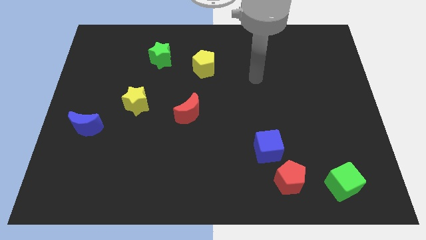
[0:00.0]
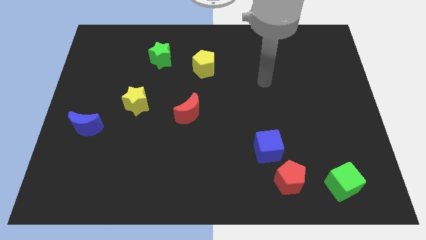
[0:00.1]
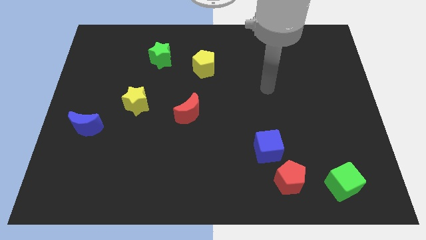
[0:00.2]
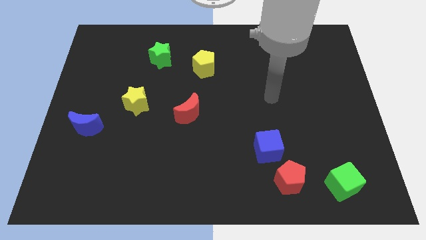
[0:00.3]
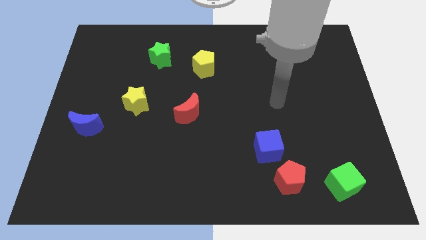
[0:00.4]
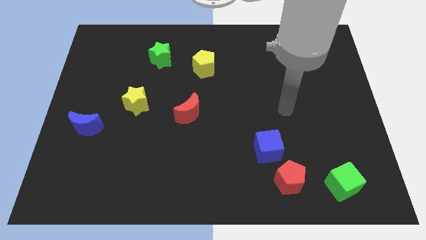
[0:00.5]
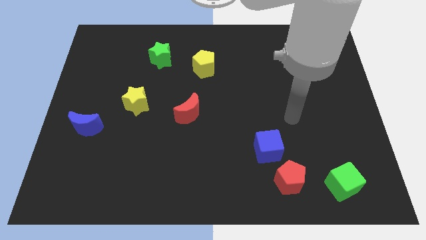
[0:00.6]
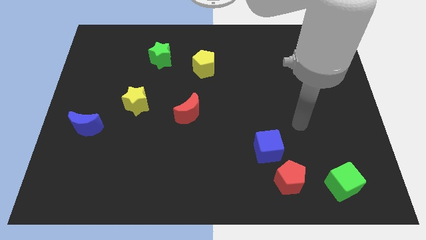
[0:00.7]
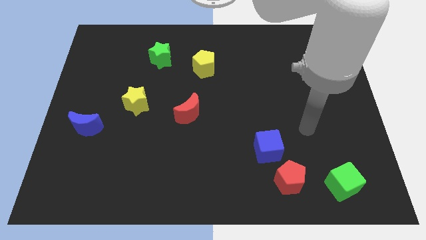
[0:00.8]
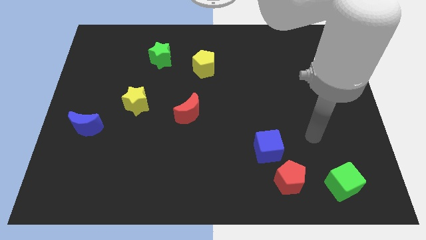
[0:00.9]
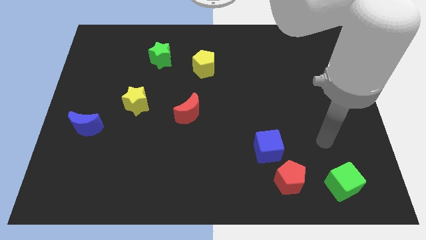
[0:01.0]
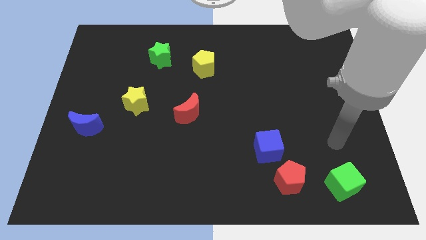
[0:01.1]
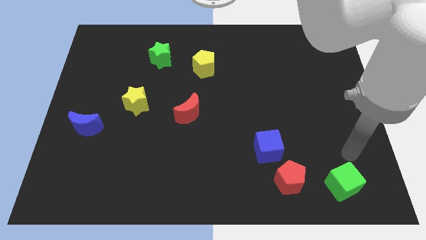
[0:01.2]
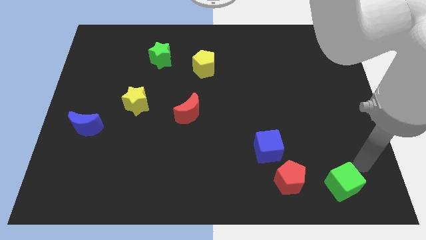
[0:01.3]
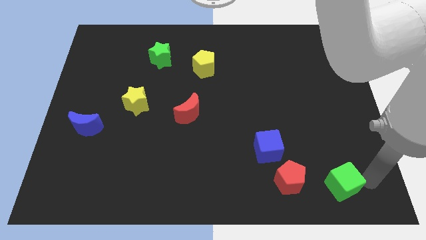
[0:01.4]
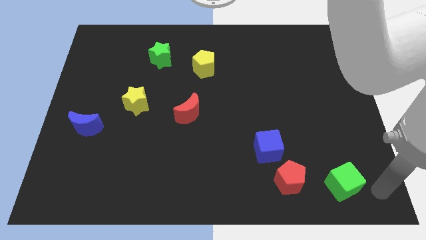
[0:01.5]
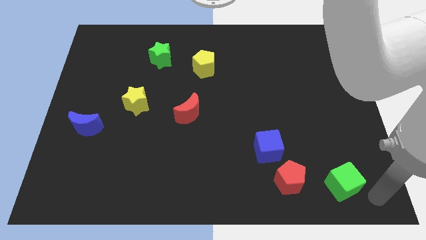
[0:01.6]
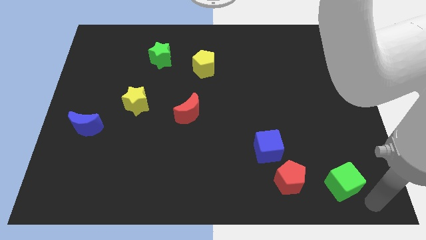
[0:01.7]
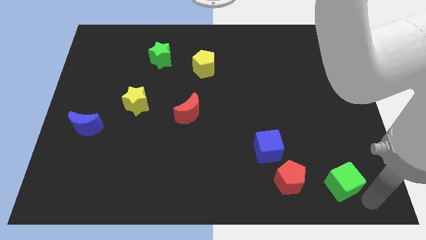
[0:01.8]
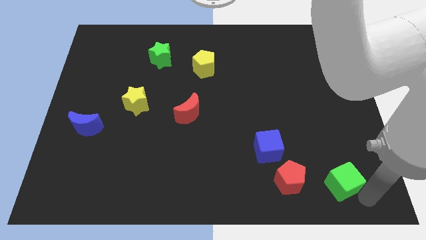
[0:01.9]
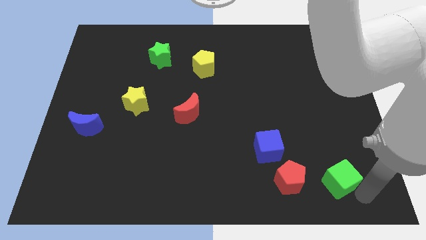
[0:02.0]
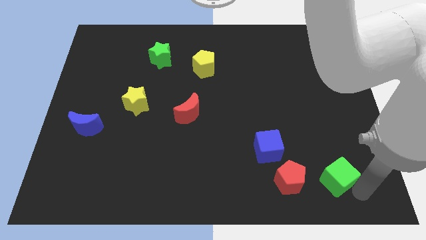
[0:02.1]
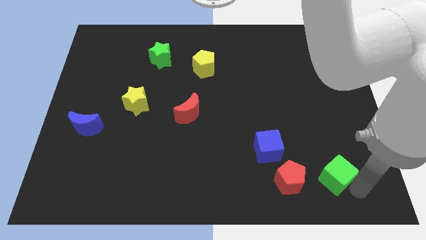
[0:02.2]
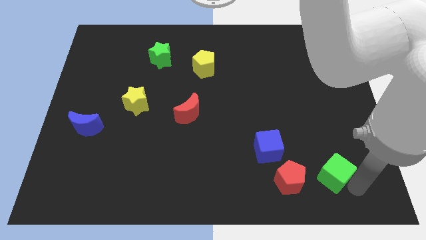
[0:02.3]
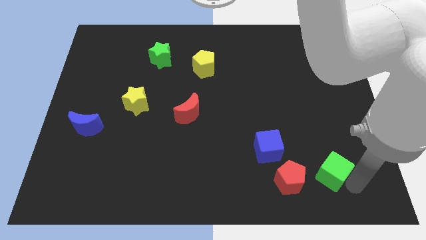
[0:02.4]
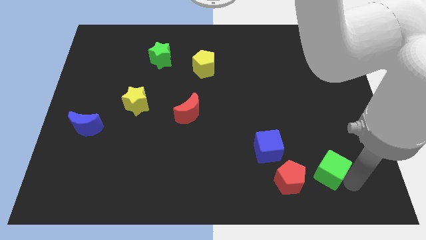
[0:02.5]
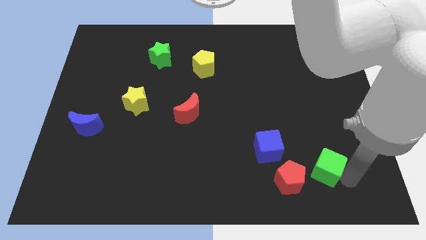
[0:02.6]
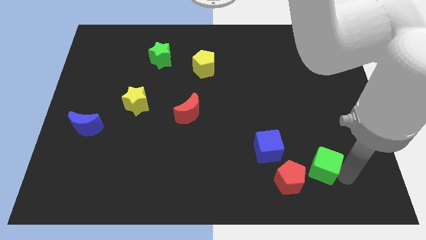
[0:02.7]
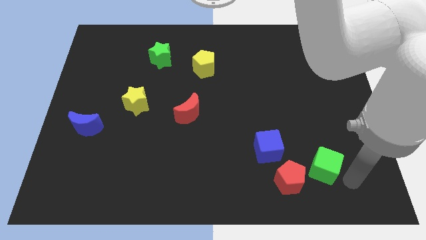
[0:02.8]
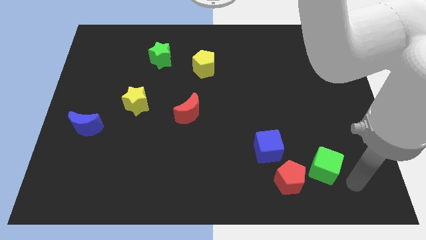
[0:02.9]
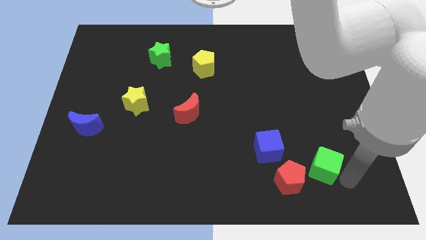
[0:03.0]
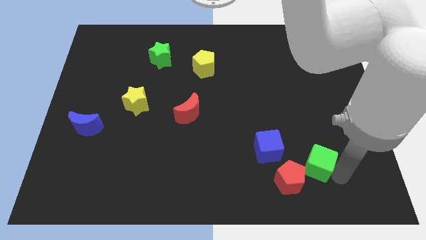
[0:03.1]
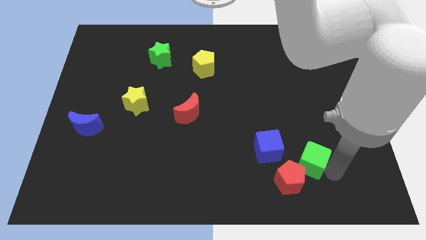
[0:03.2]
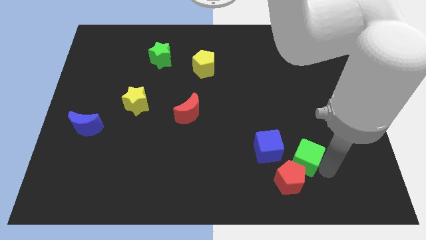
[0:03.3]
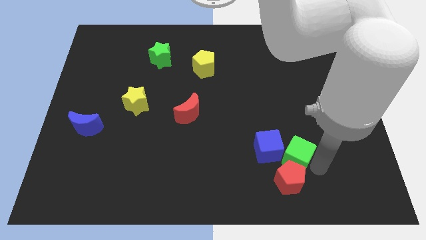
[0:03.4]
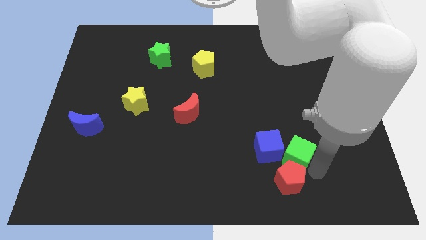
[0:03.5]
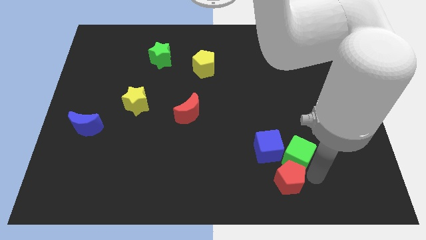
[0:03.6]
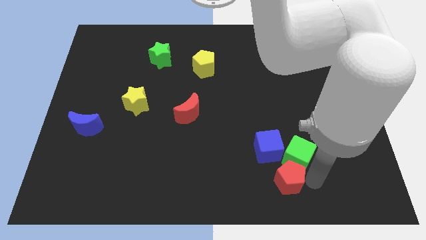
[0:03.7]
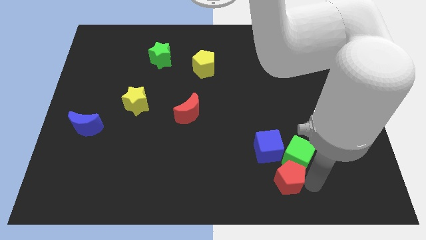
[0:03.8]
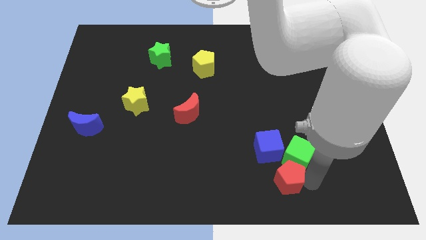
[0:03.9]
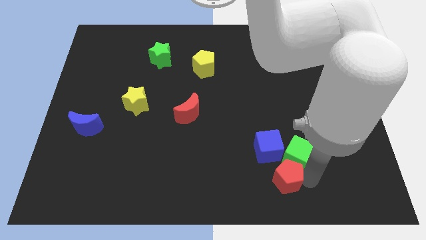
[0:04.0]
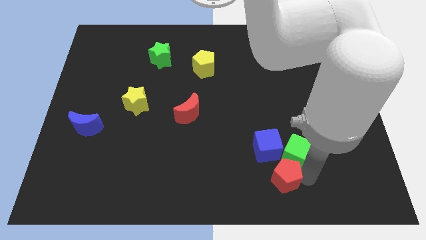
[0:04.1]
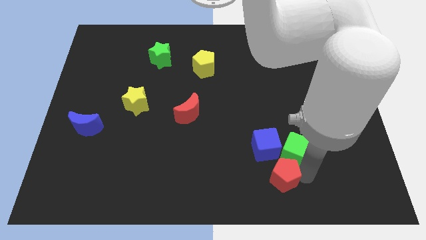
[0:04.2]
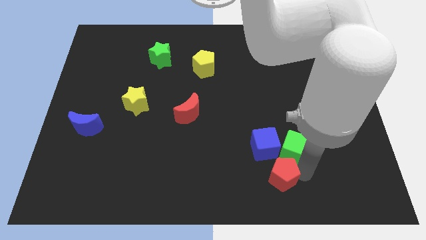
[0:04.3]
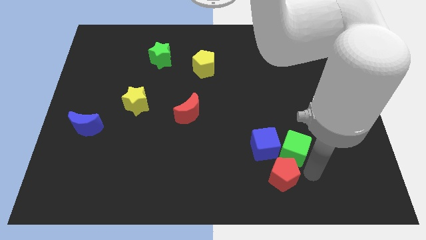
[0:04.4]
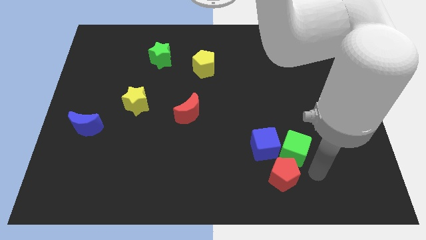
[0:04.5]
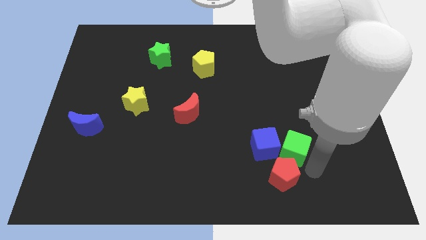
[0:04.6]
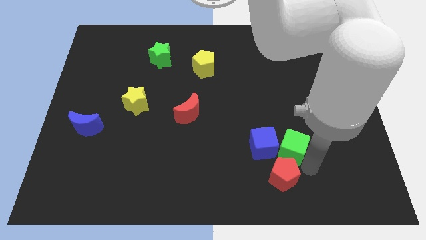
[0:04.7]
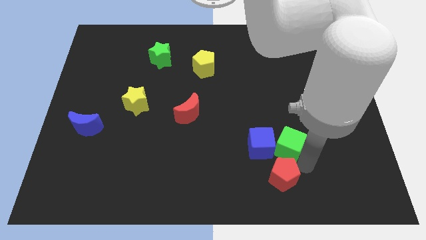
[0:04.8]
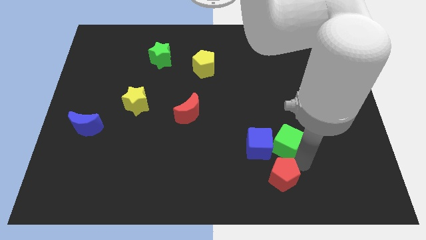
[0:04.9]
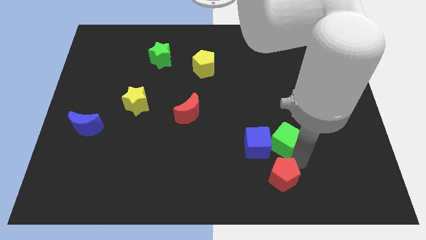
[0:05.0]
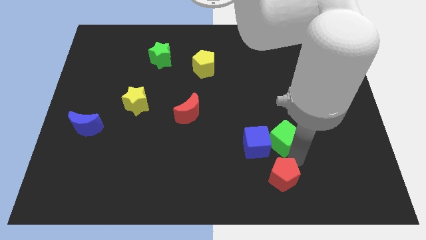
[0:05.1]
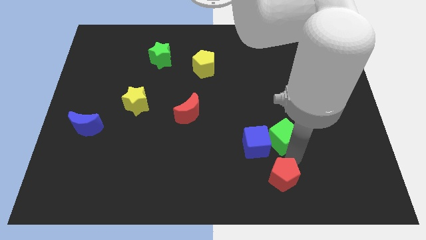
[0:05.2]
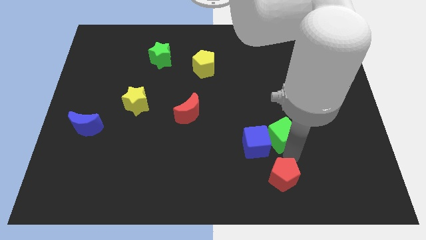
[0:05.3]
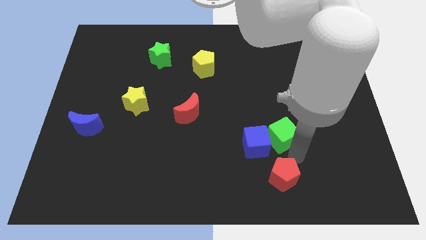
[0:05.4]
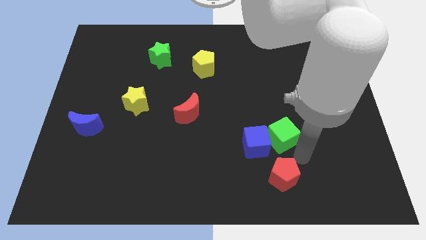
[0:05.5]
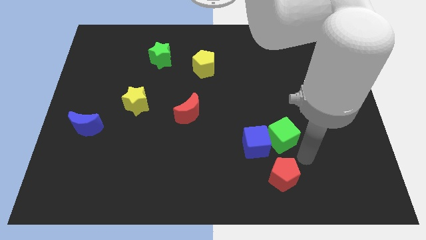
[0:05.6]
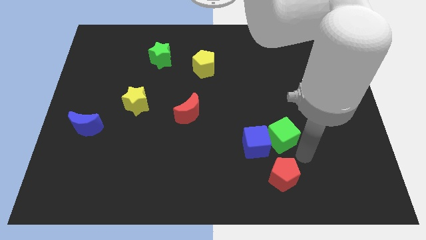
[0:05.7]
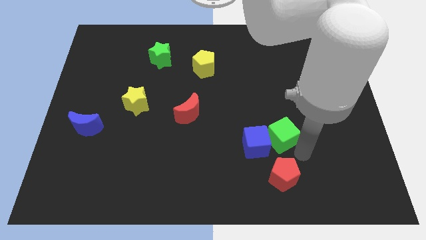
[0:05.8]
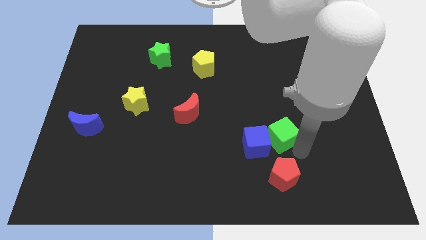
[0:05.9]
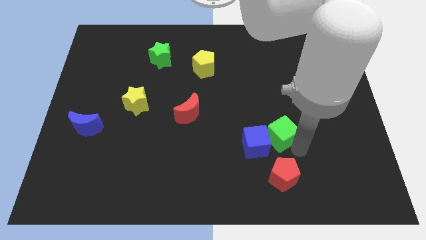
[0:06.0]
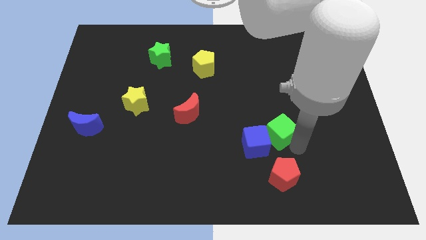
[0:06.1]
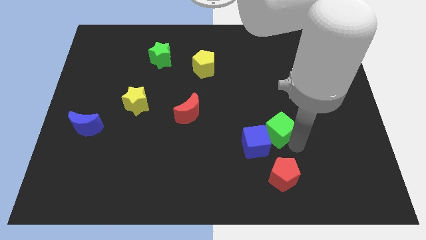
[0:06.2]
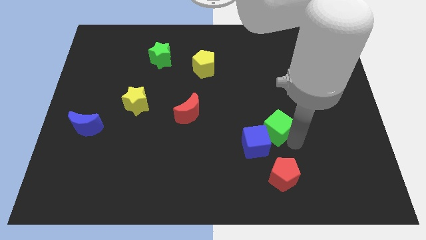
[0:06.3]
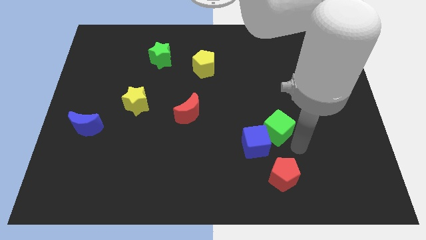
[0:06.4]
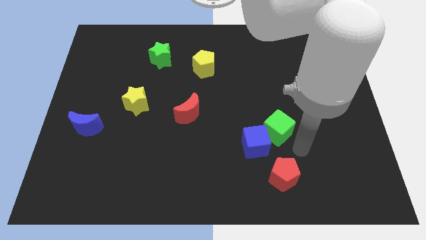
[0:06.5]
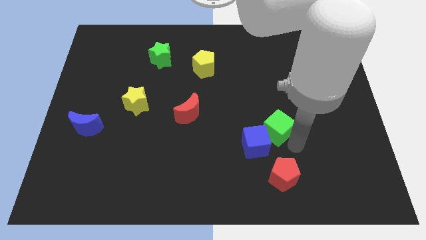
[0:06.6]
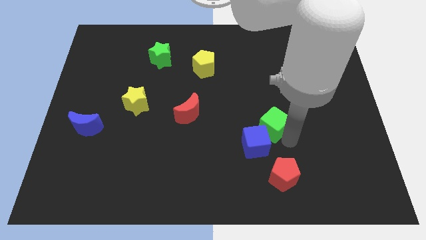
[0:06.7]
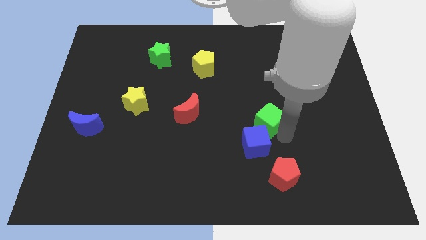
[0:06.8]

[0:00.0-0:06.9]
slide the green cube upwards and to the left diagonally

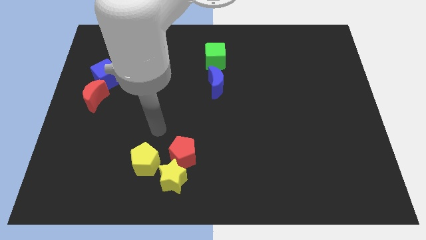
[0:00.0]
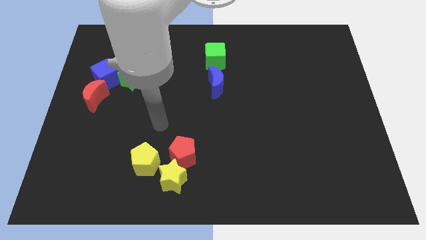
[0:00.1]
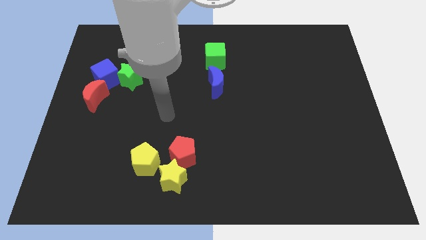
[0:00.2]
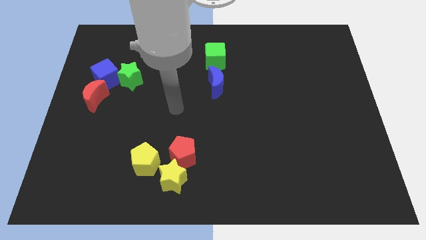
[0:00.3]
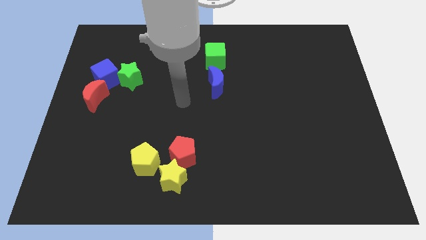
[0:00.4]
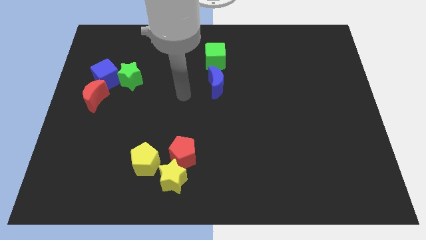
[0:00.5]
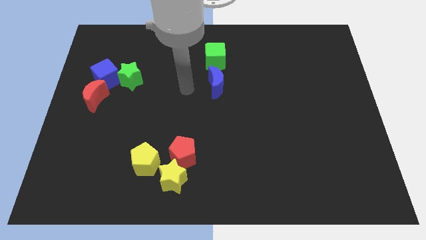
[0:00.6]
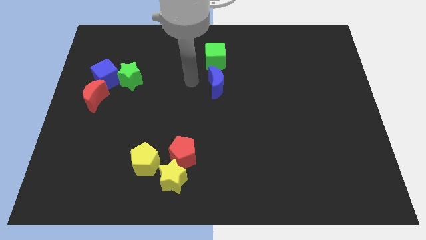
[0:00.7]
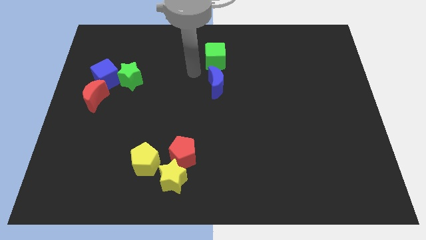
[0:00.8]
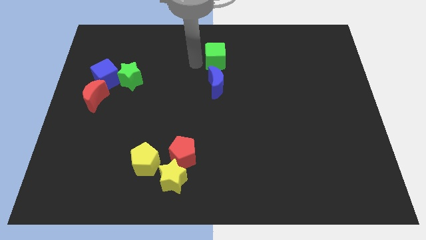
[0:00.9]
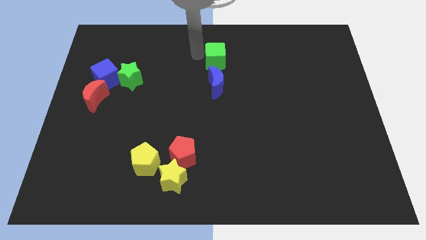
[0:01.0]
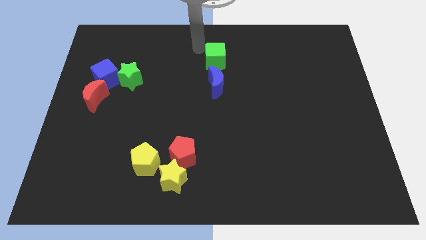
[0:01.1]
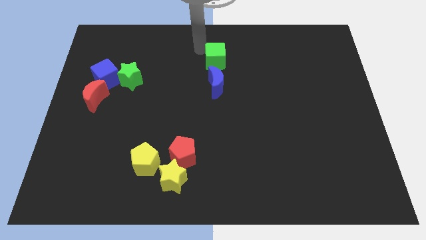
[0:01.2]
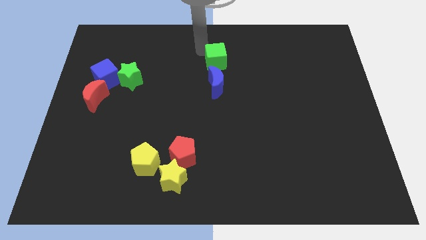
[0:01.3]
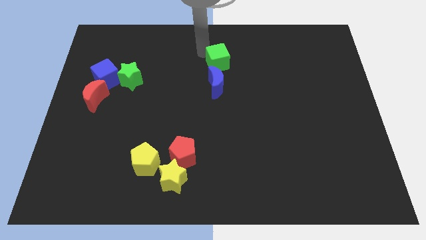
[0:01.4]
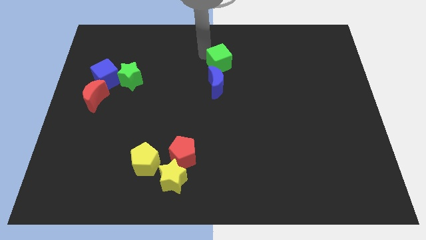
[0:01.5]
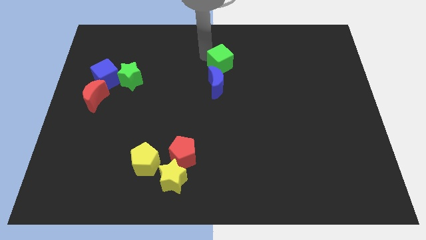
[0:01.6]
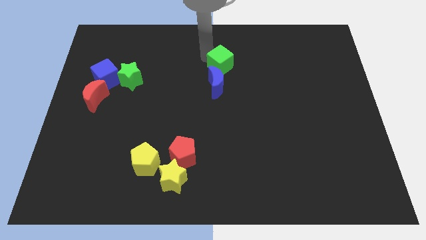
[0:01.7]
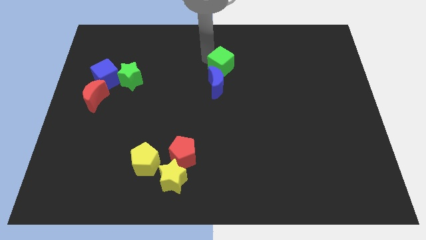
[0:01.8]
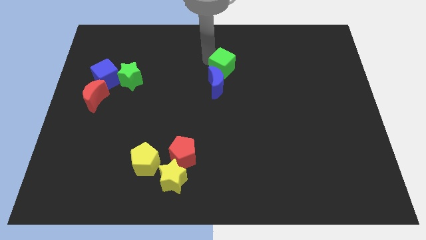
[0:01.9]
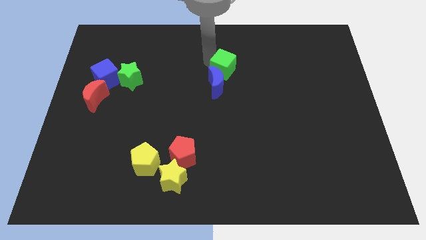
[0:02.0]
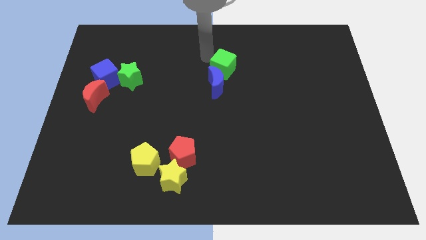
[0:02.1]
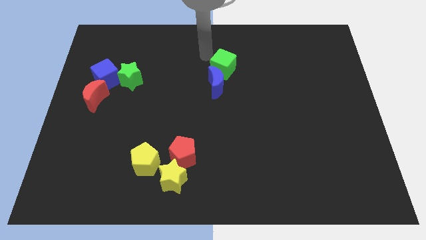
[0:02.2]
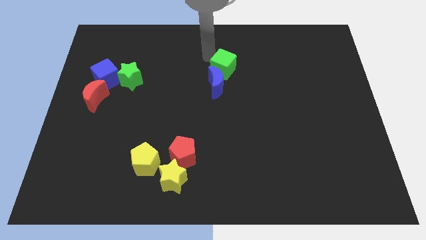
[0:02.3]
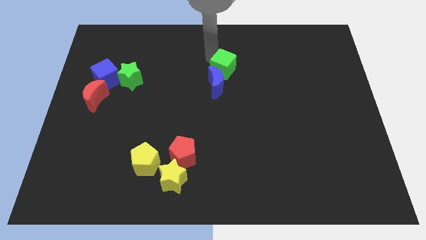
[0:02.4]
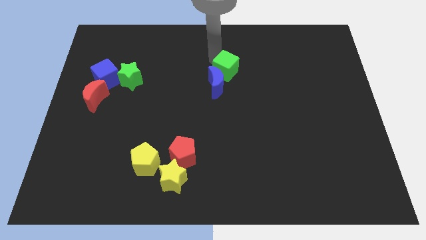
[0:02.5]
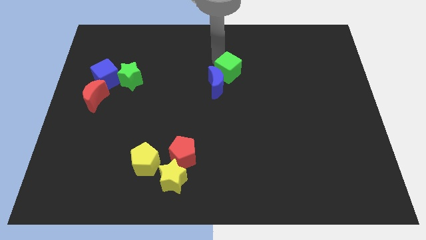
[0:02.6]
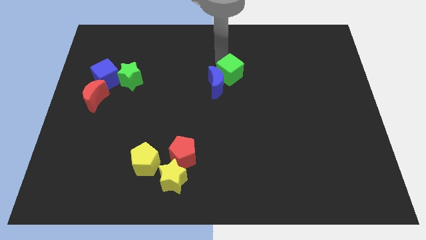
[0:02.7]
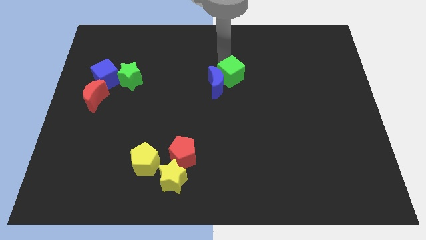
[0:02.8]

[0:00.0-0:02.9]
move the green cube diagonally downwards and right a little bit
